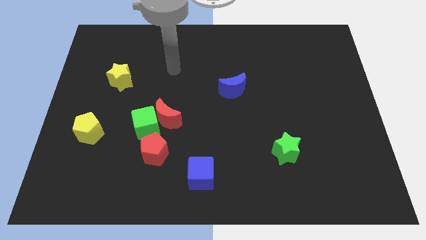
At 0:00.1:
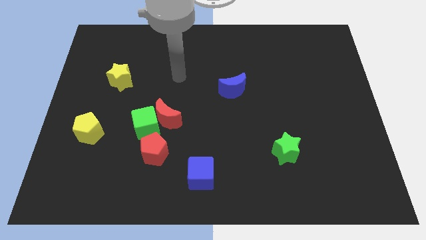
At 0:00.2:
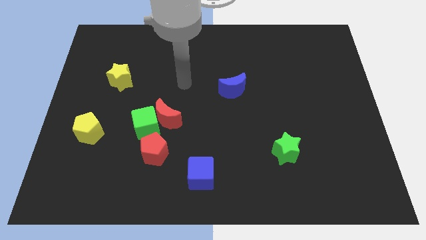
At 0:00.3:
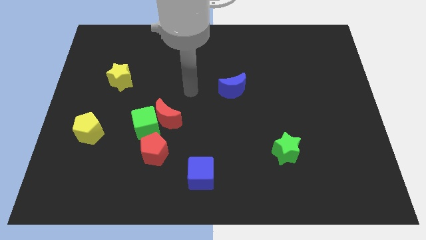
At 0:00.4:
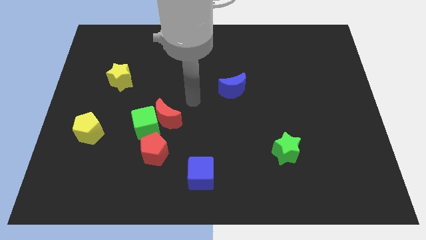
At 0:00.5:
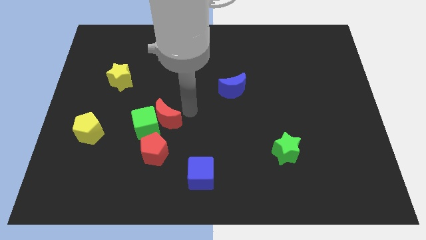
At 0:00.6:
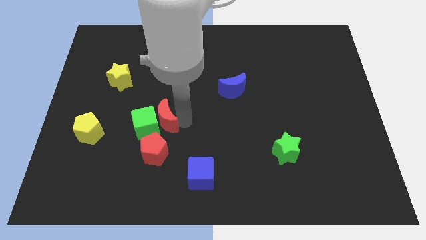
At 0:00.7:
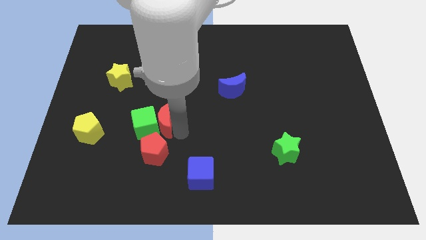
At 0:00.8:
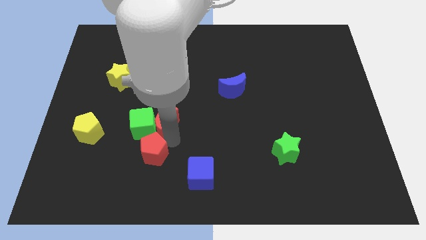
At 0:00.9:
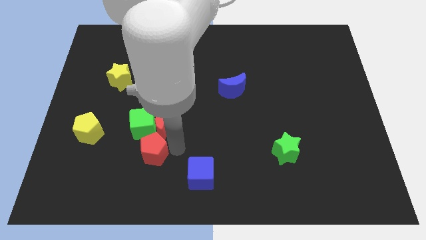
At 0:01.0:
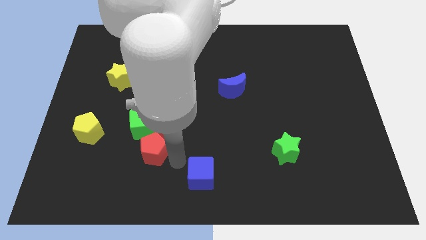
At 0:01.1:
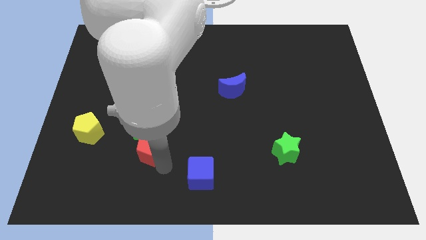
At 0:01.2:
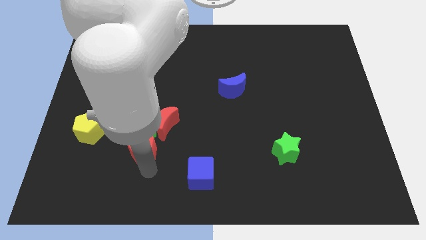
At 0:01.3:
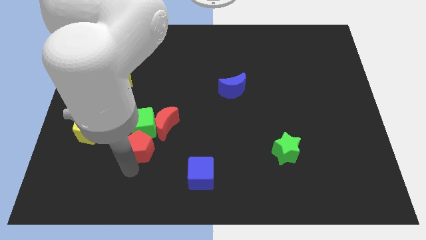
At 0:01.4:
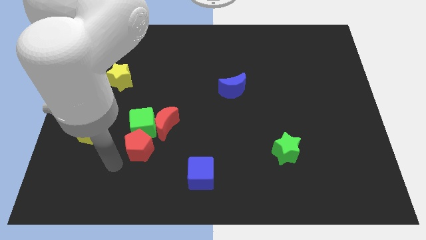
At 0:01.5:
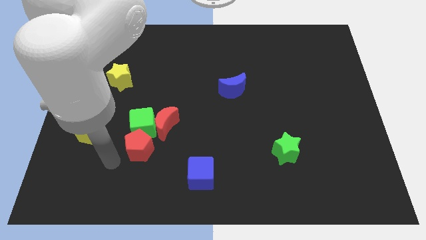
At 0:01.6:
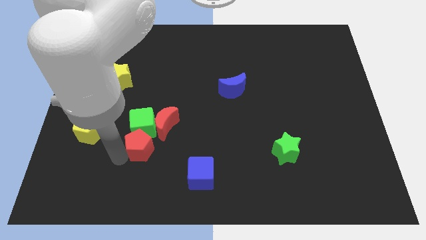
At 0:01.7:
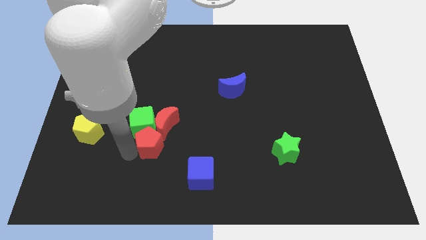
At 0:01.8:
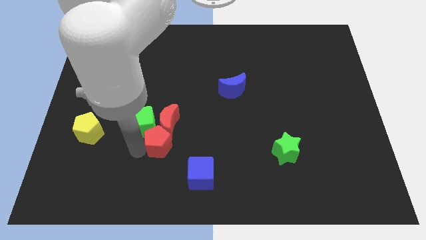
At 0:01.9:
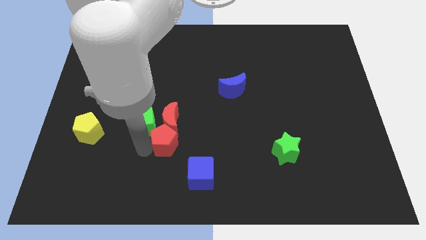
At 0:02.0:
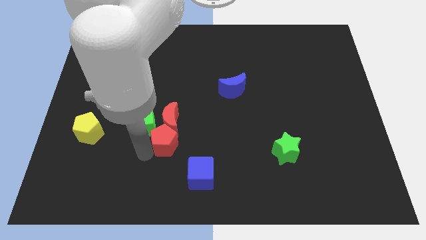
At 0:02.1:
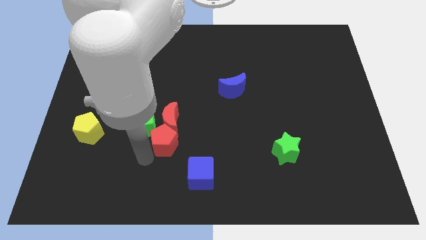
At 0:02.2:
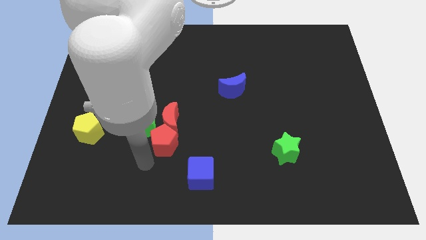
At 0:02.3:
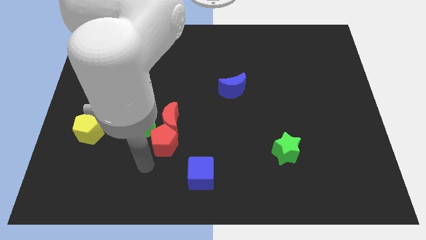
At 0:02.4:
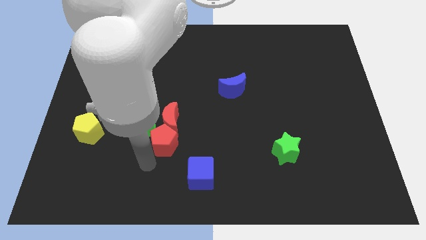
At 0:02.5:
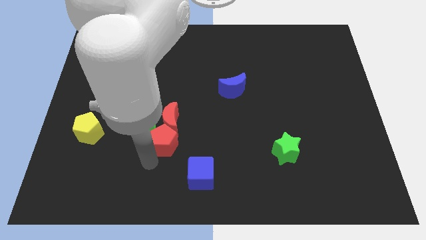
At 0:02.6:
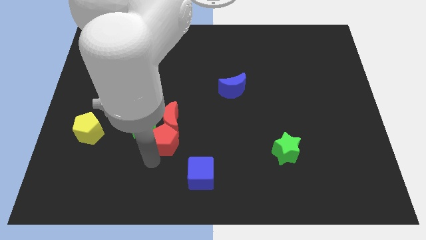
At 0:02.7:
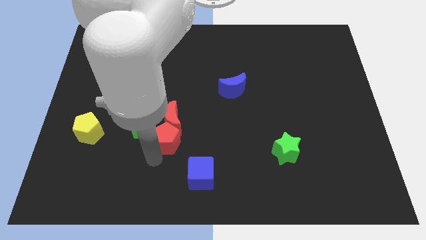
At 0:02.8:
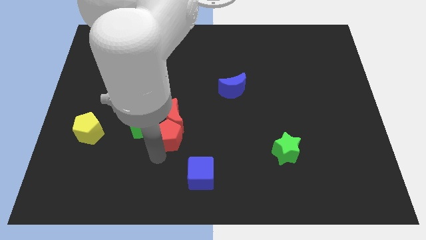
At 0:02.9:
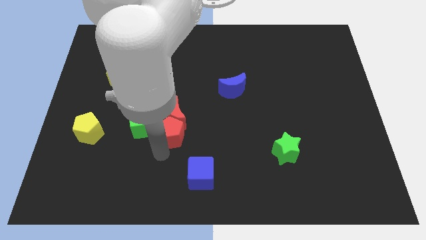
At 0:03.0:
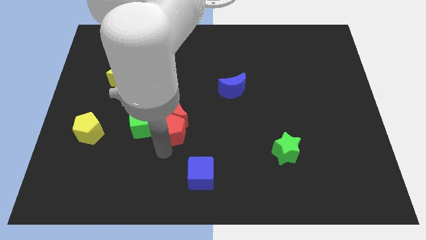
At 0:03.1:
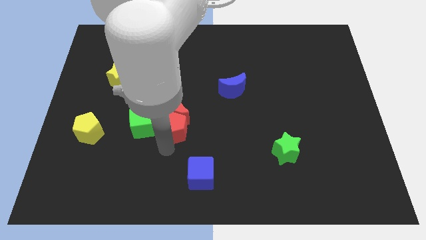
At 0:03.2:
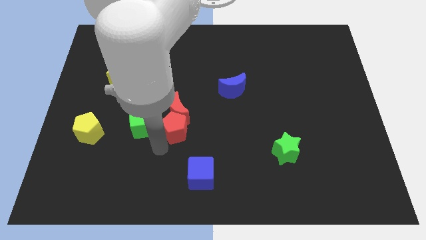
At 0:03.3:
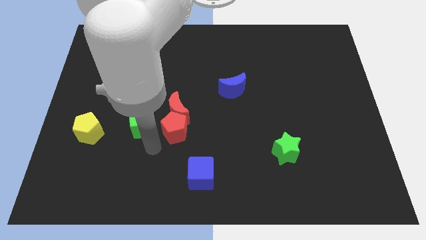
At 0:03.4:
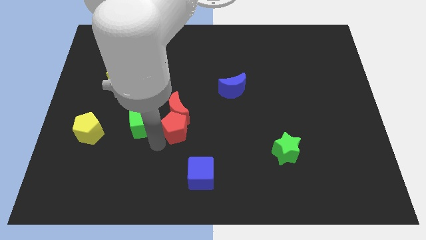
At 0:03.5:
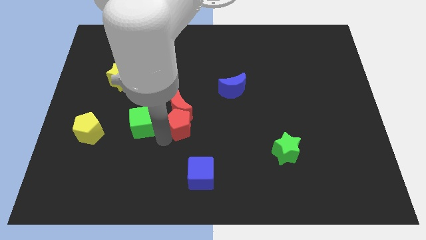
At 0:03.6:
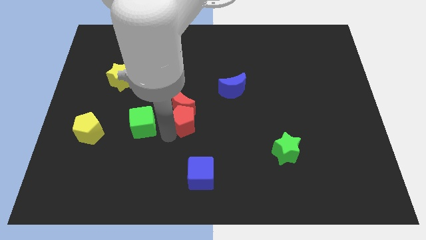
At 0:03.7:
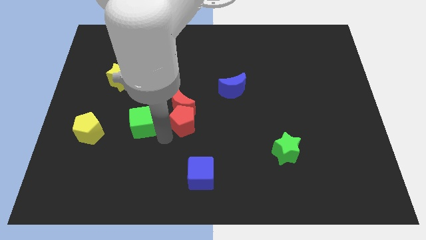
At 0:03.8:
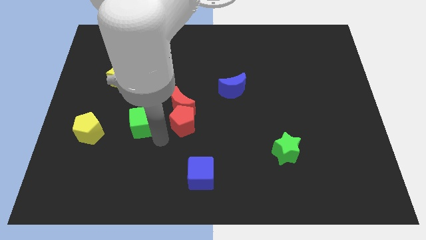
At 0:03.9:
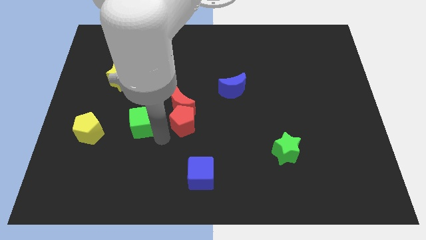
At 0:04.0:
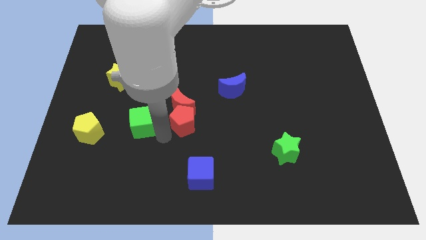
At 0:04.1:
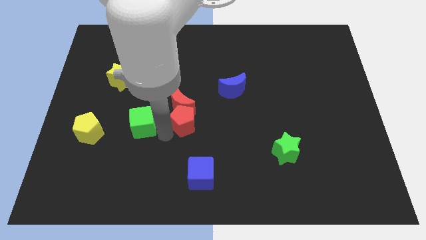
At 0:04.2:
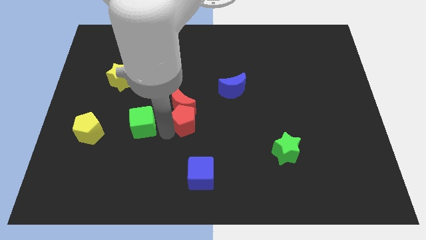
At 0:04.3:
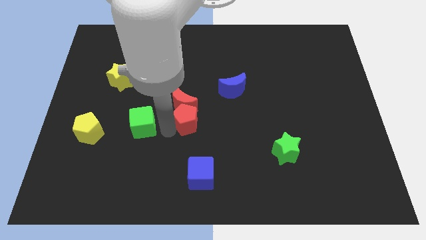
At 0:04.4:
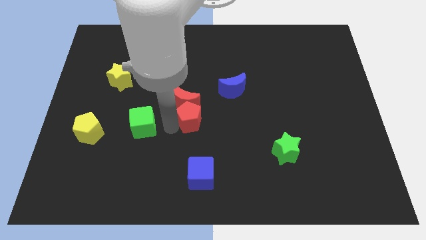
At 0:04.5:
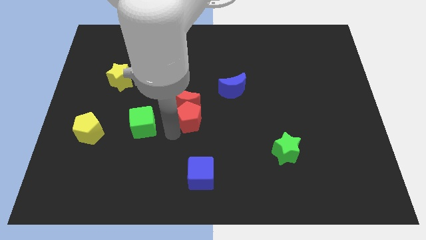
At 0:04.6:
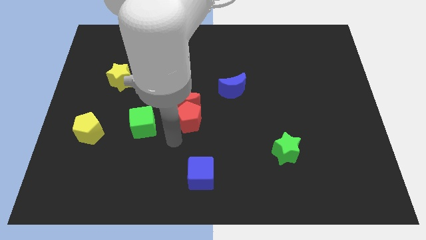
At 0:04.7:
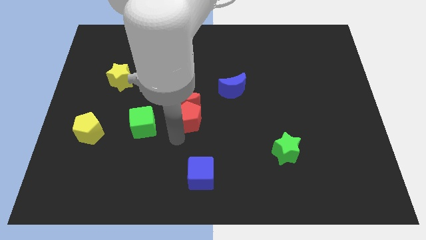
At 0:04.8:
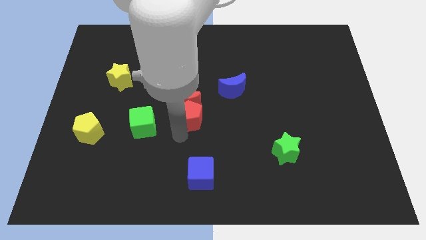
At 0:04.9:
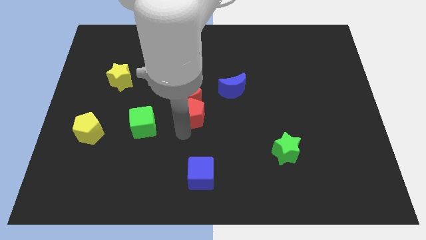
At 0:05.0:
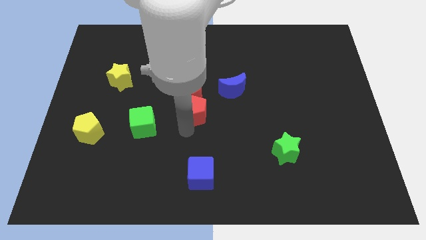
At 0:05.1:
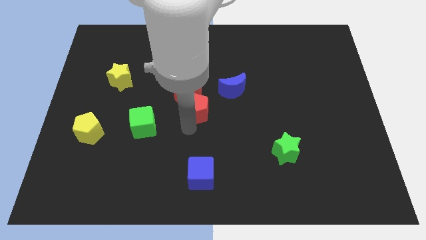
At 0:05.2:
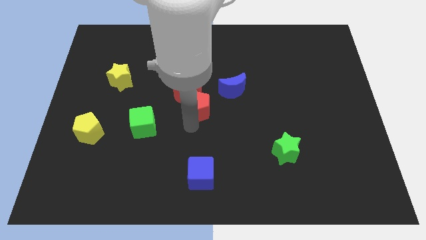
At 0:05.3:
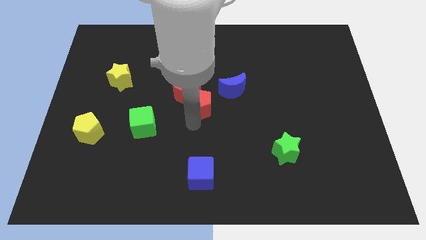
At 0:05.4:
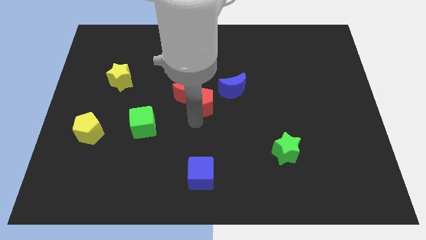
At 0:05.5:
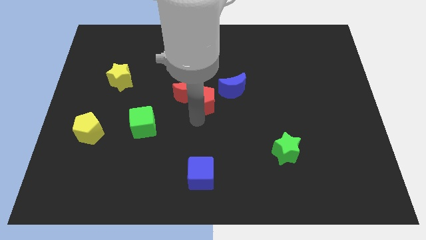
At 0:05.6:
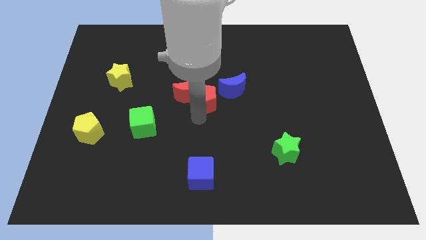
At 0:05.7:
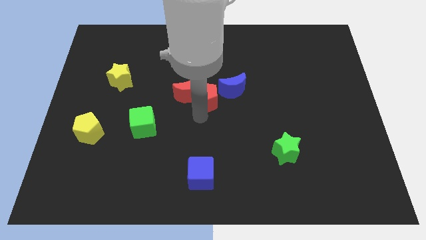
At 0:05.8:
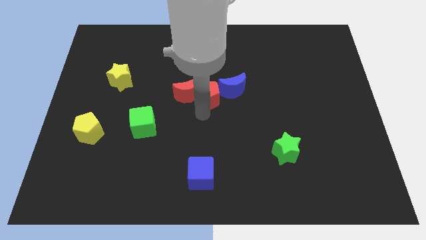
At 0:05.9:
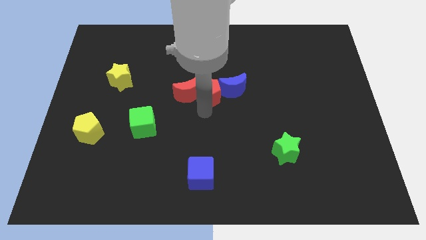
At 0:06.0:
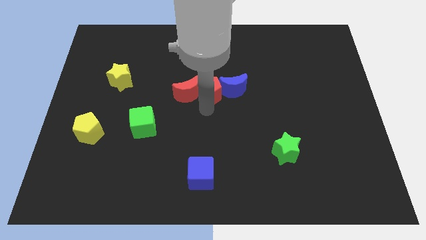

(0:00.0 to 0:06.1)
move the red pentagon to the top left side of the blue moon
